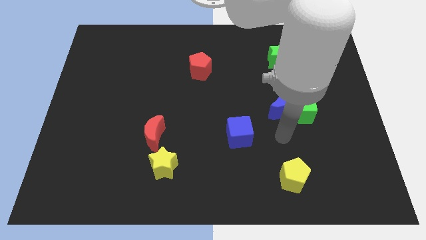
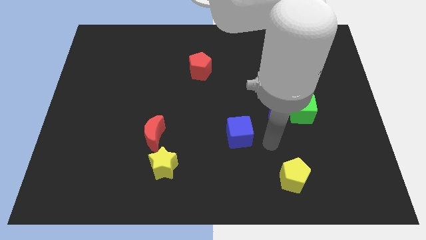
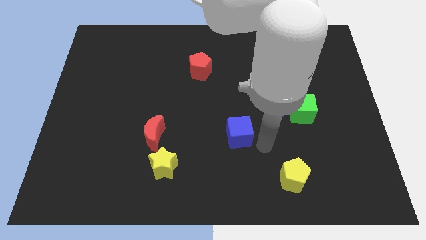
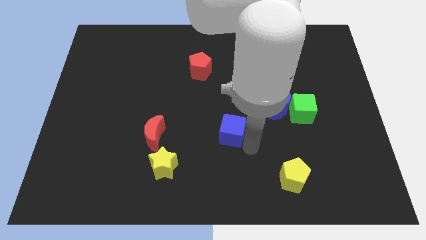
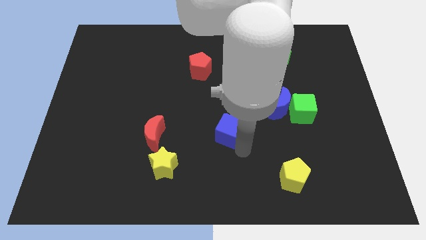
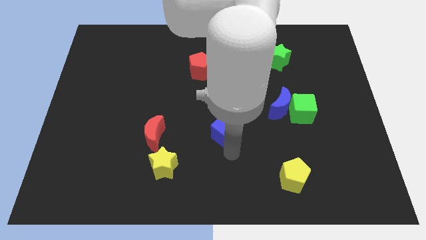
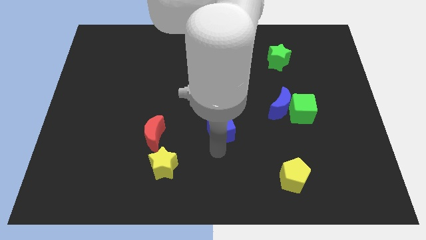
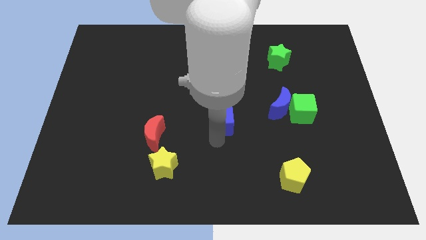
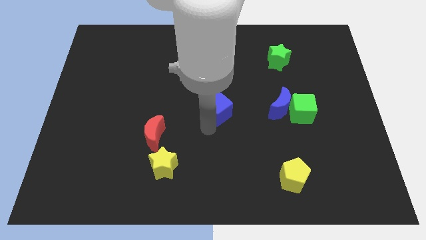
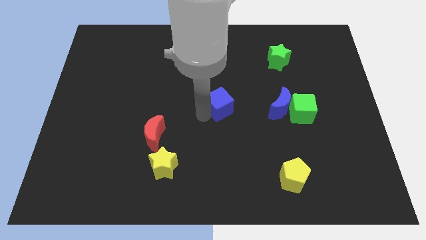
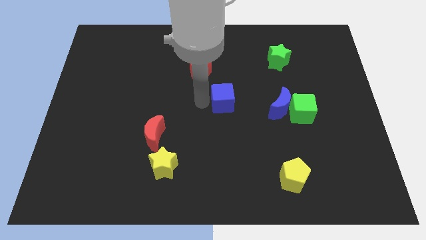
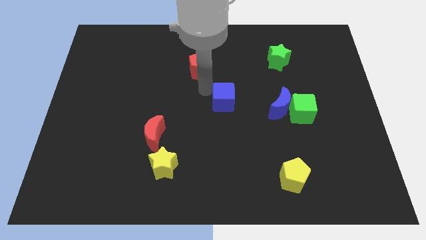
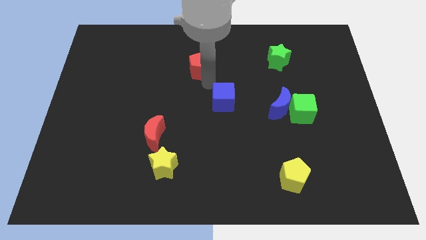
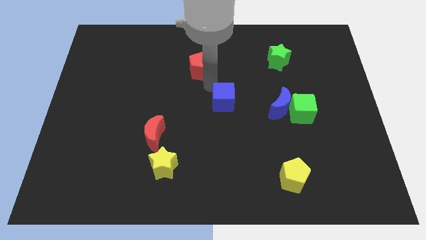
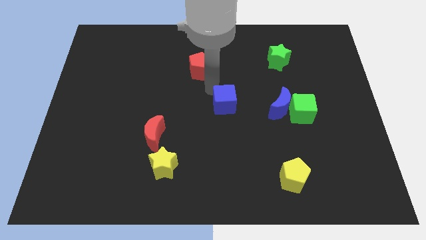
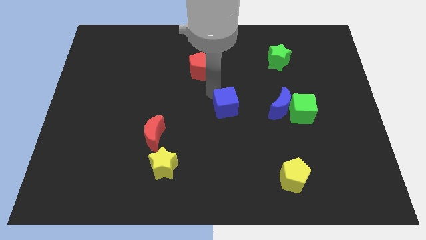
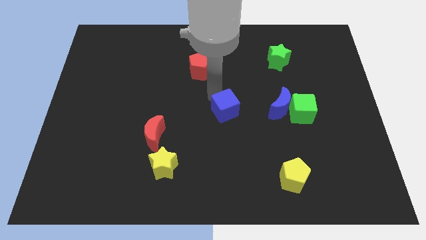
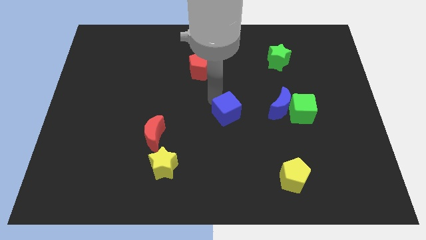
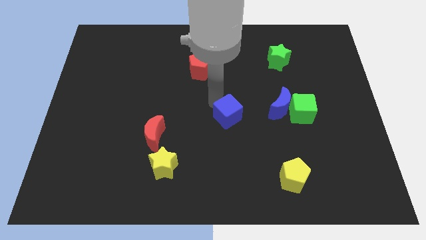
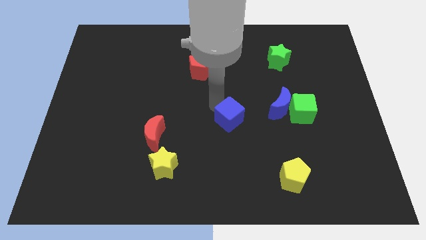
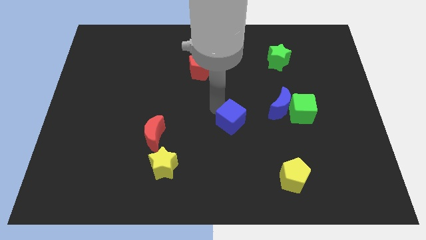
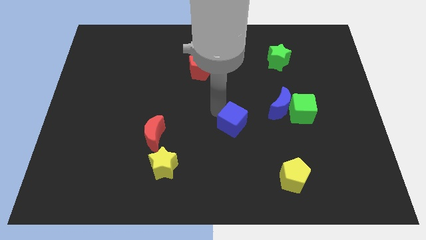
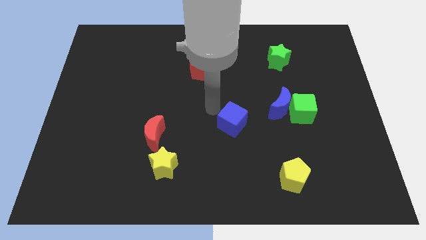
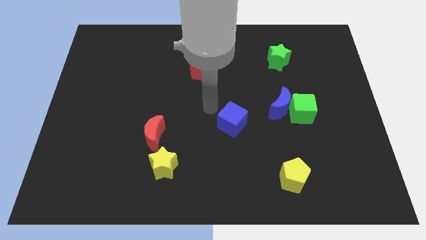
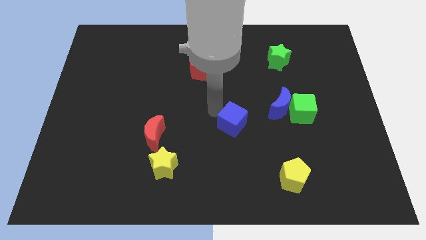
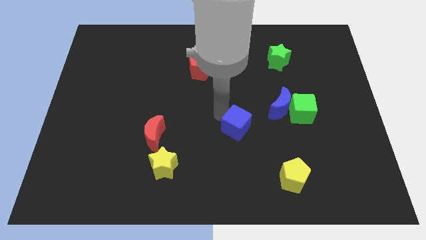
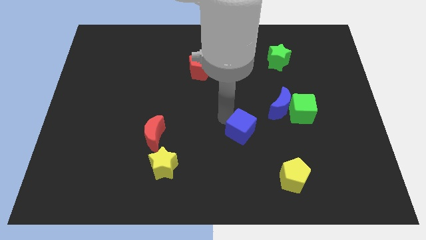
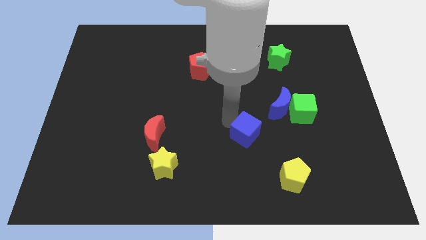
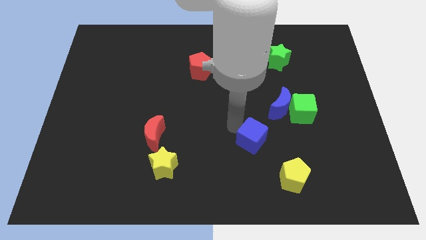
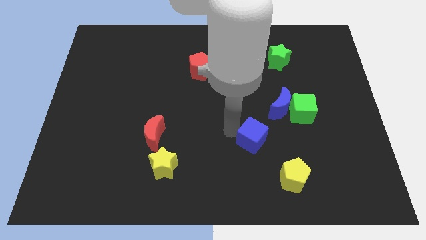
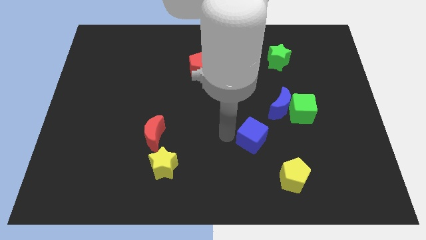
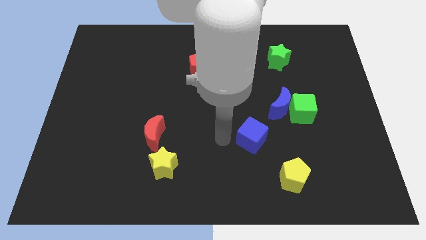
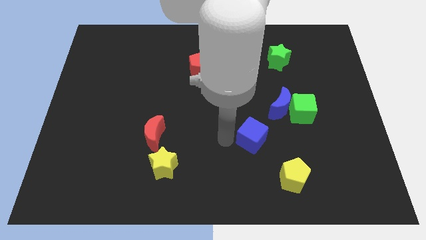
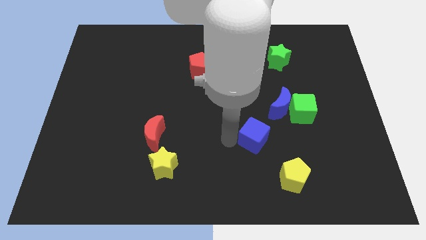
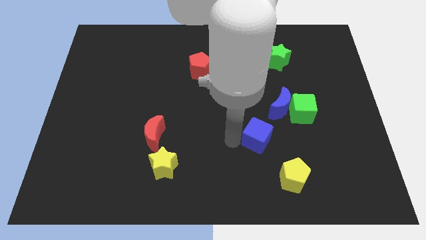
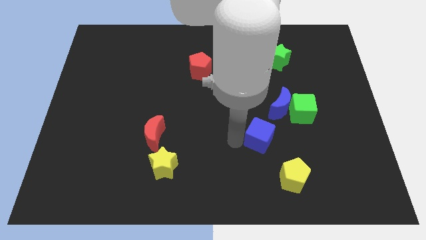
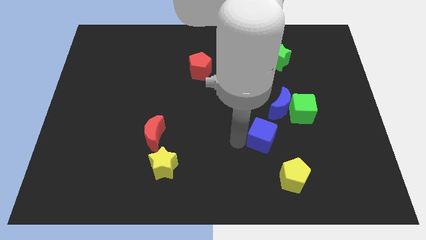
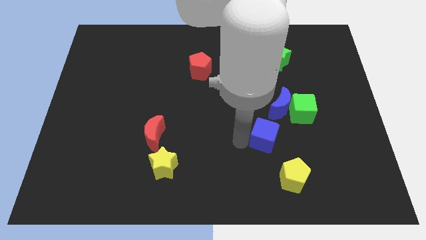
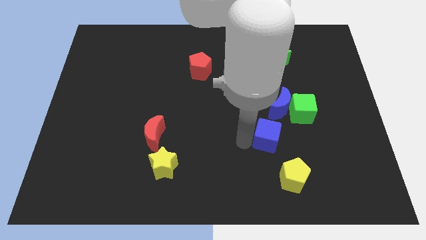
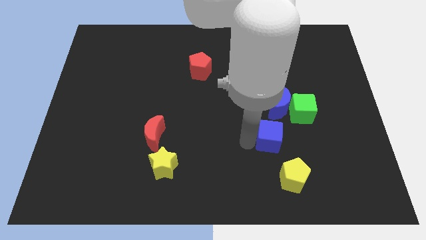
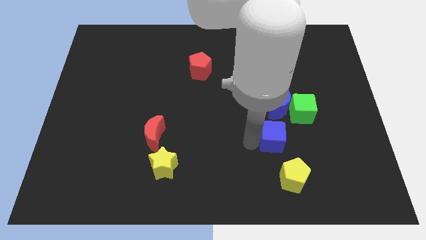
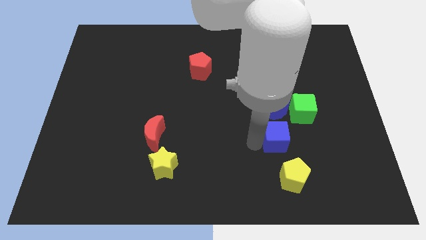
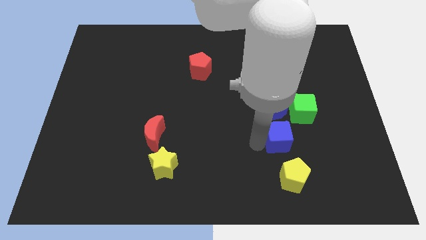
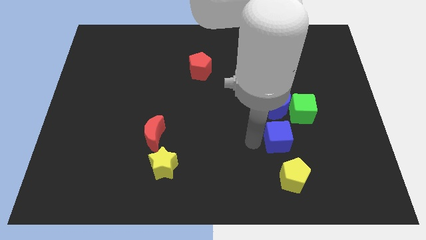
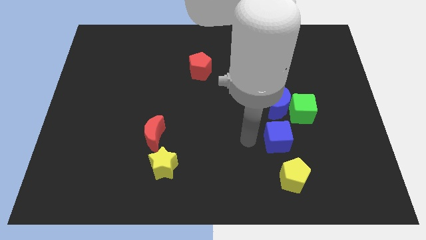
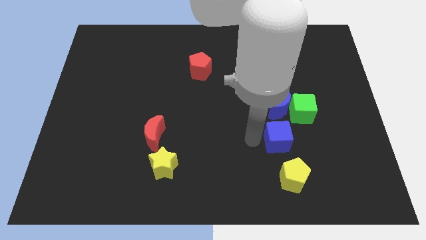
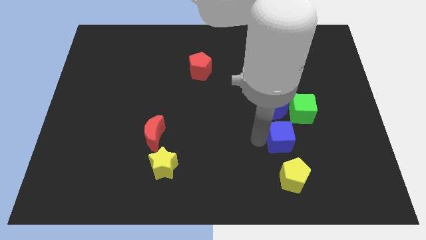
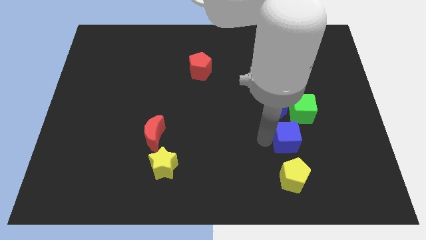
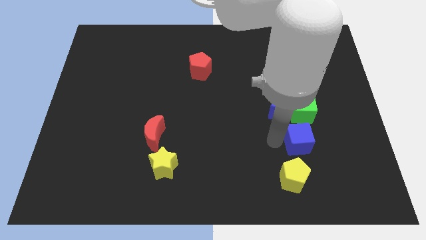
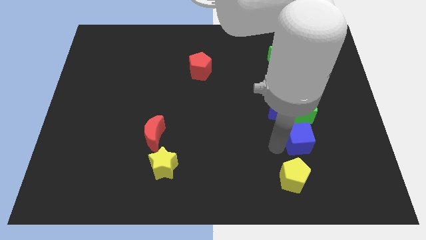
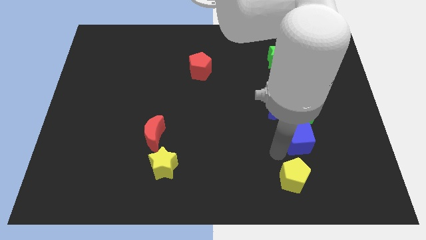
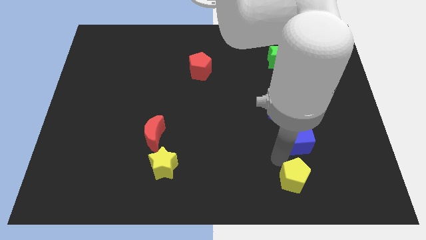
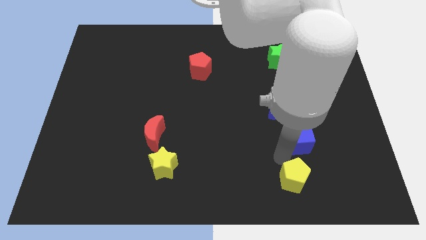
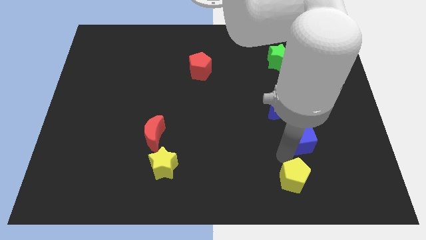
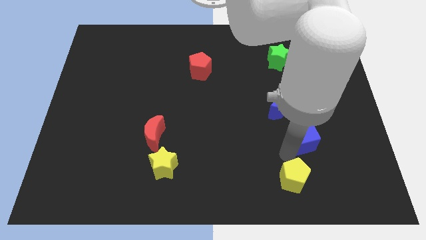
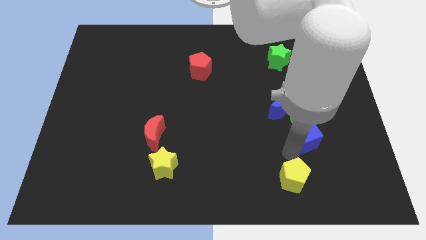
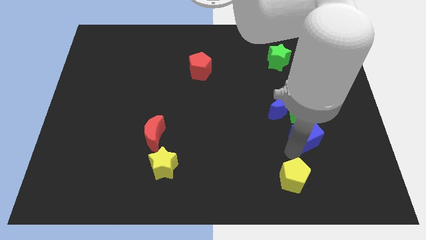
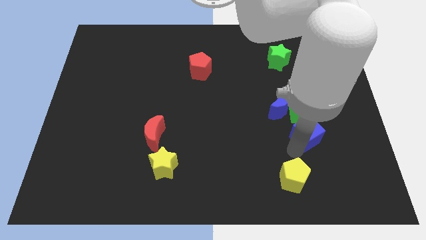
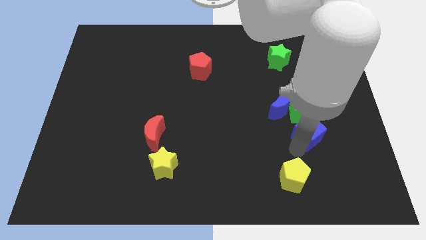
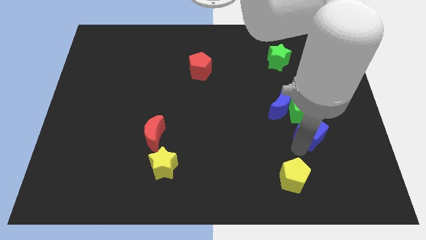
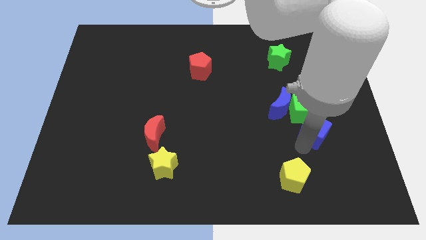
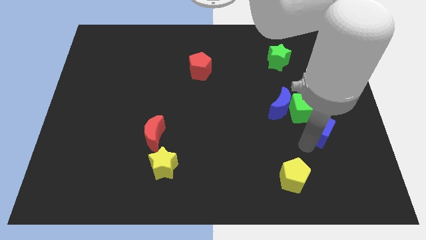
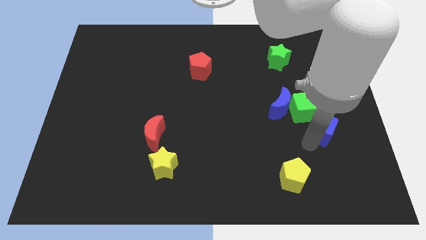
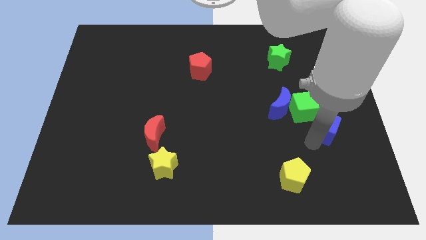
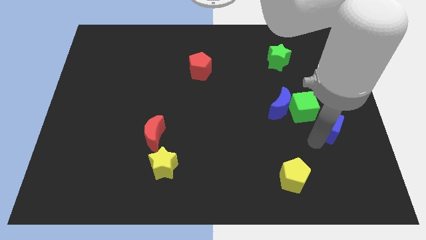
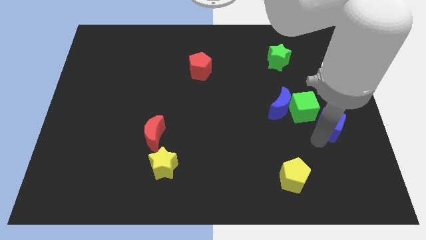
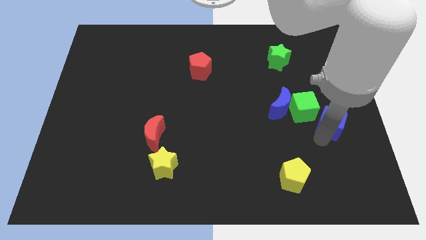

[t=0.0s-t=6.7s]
put the blue cube to the right of the blue moon

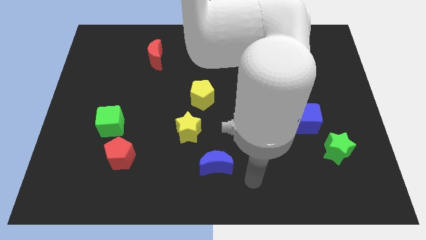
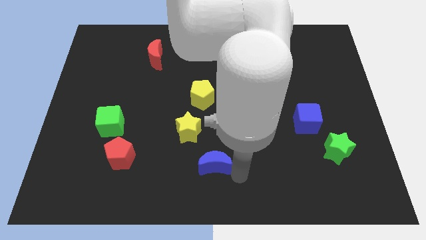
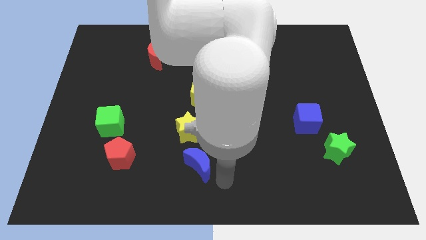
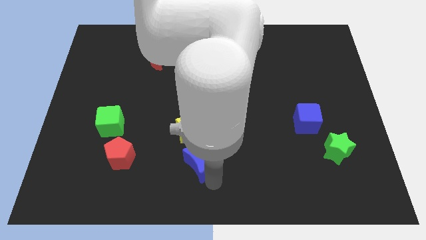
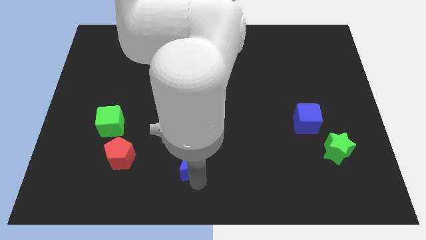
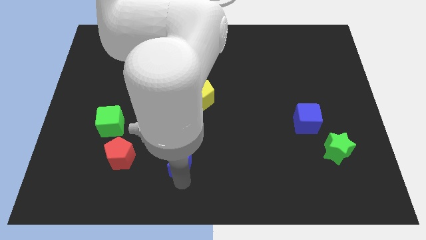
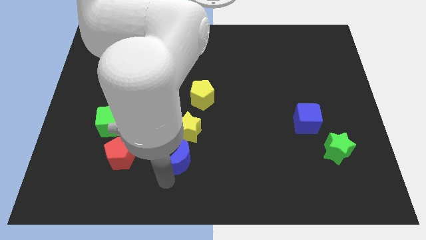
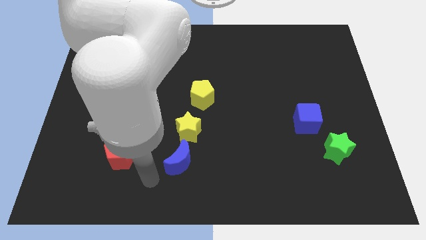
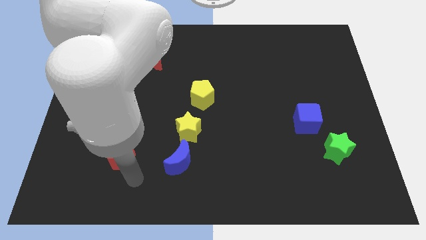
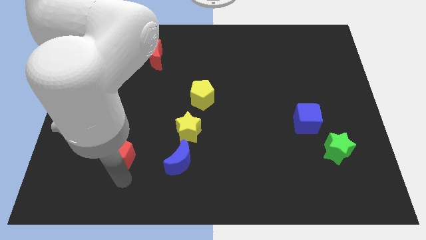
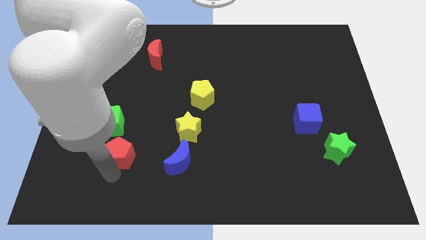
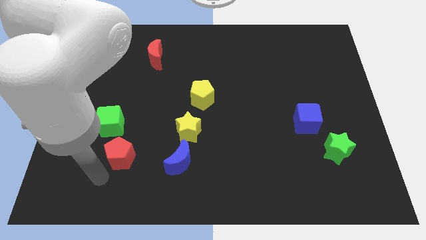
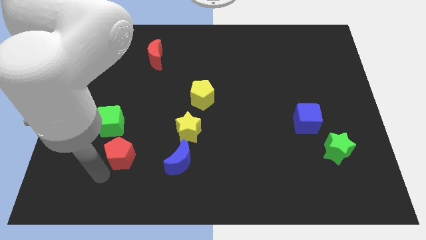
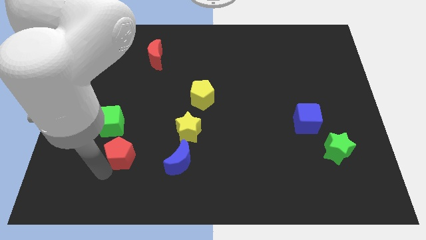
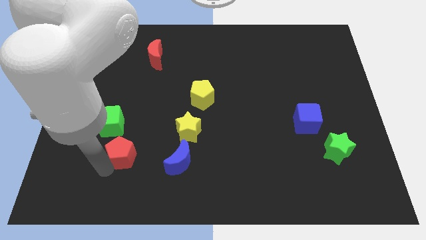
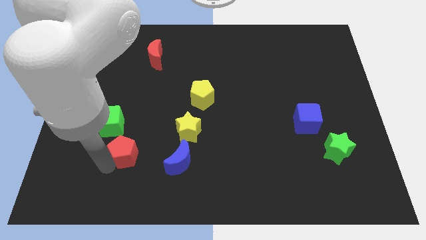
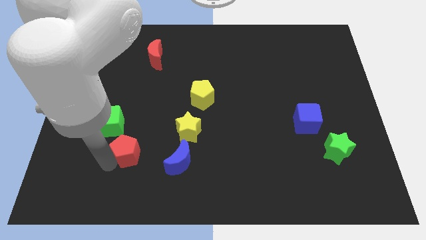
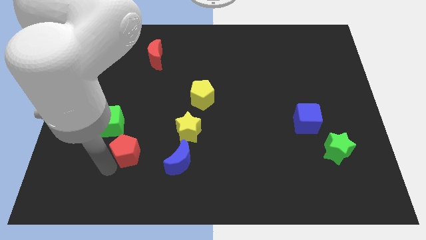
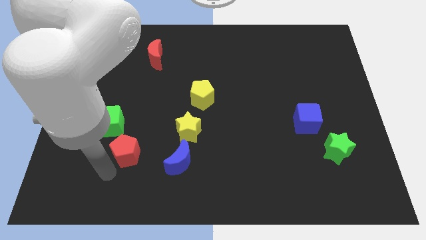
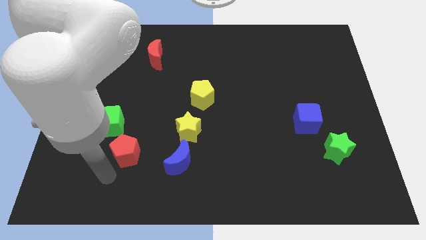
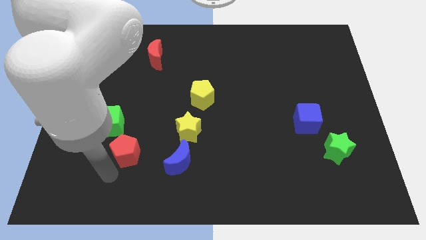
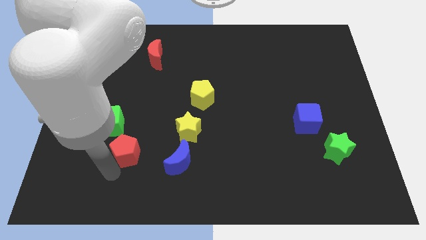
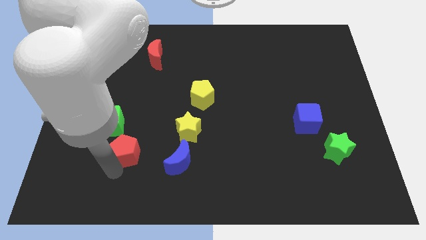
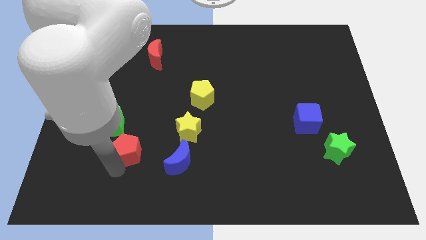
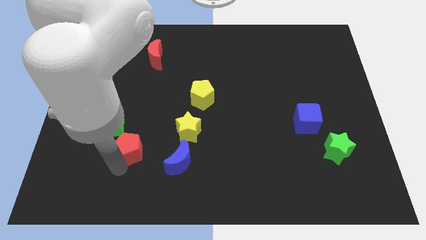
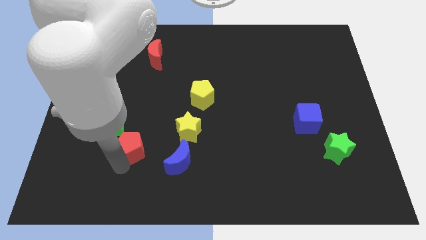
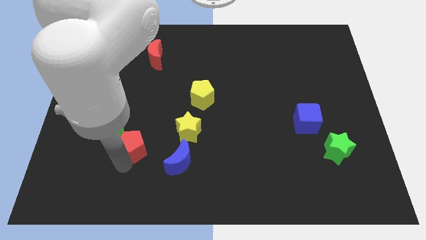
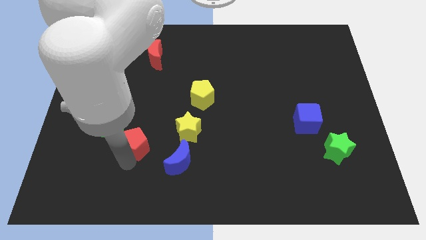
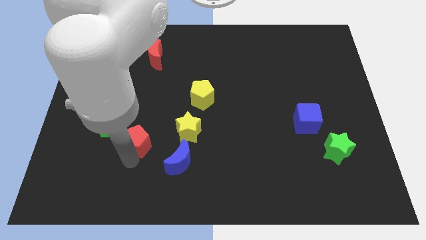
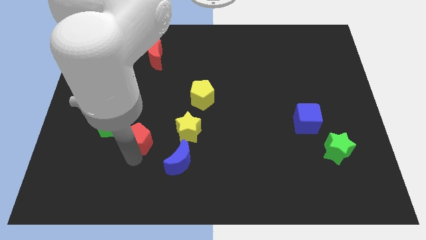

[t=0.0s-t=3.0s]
slide the red pentagon to the right side of the green cube
